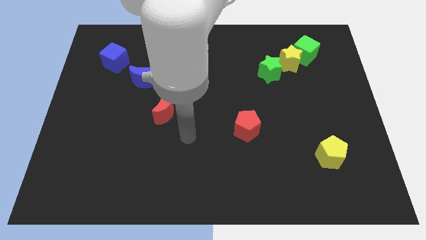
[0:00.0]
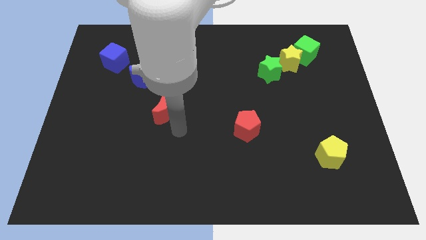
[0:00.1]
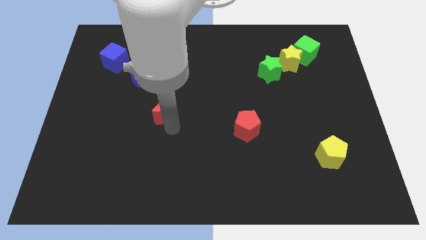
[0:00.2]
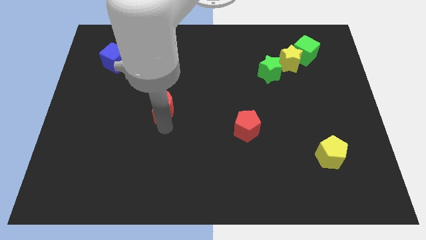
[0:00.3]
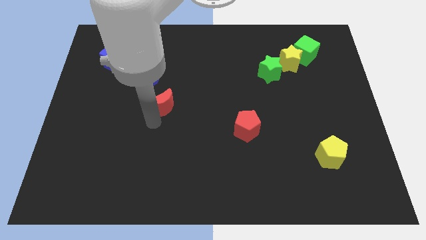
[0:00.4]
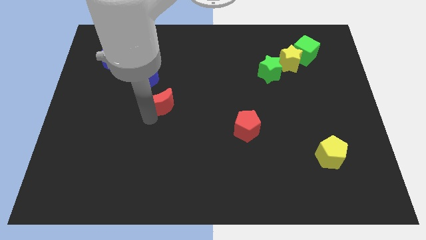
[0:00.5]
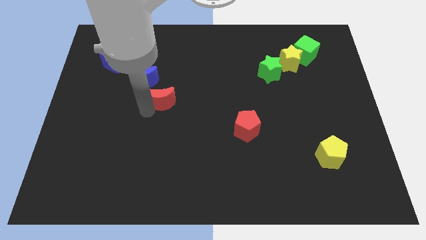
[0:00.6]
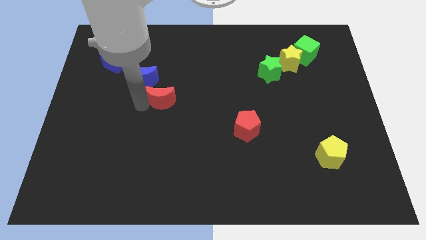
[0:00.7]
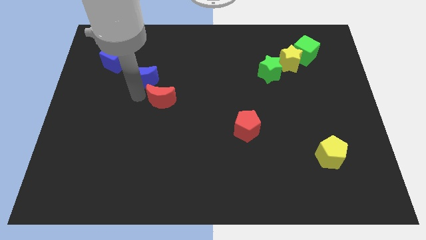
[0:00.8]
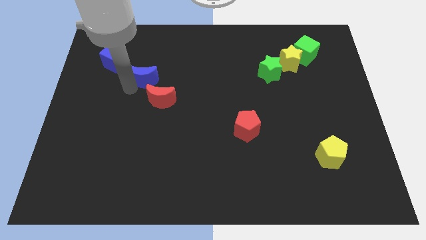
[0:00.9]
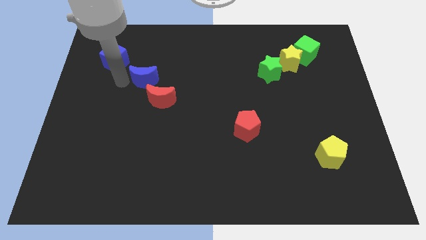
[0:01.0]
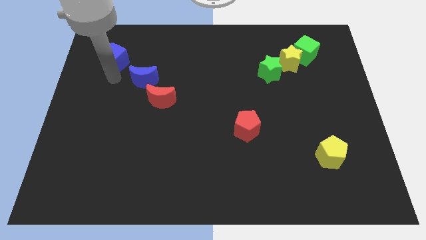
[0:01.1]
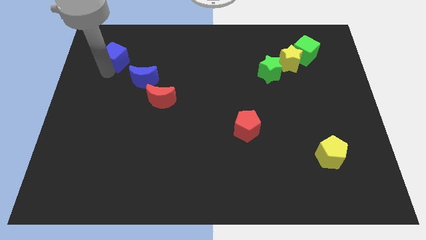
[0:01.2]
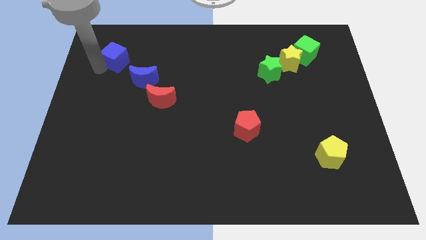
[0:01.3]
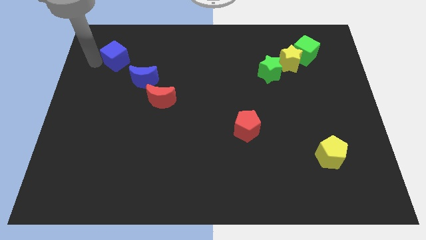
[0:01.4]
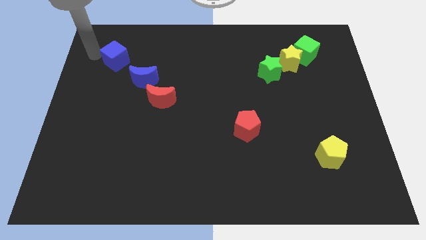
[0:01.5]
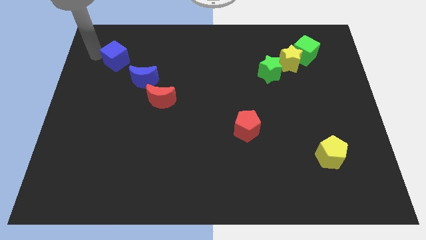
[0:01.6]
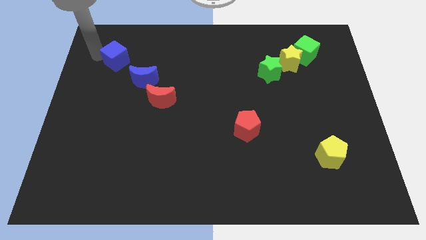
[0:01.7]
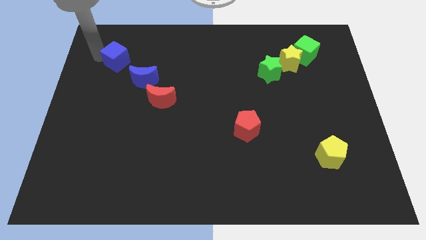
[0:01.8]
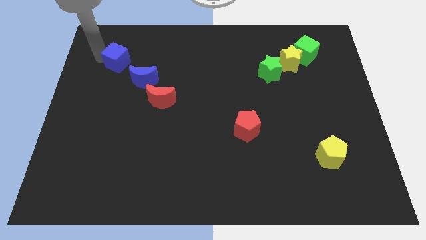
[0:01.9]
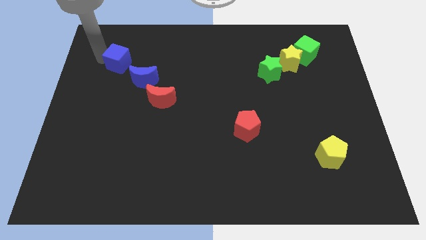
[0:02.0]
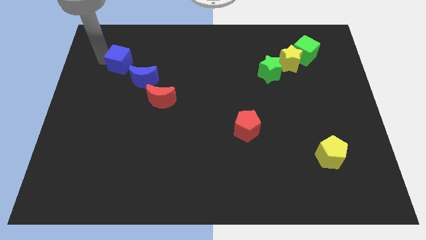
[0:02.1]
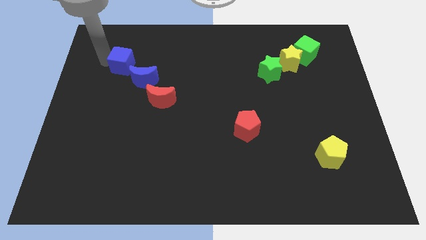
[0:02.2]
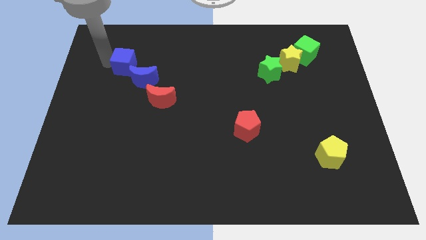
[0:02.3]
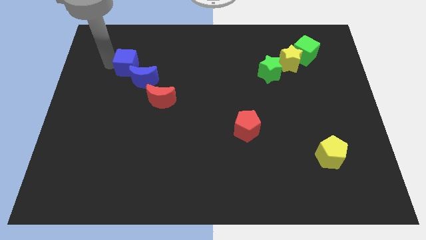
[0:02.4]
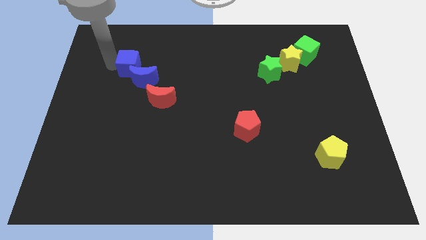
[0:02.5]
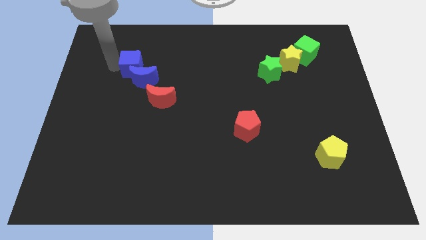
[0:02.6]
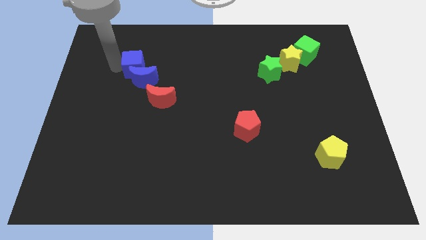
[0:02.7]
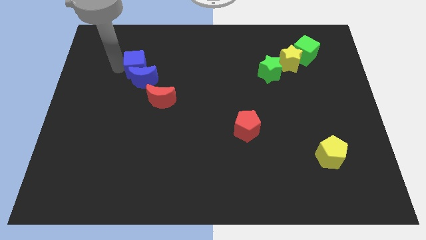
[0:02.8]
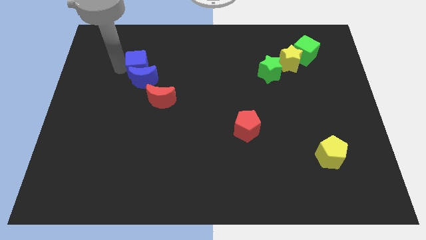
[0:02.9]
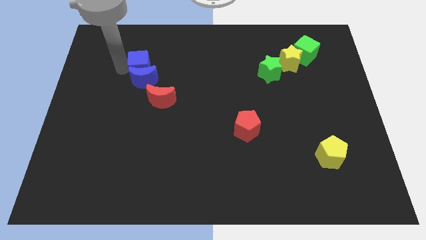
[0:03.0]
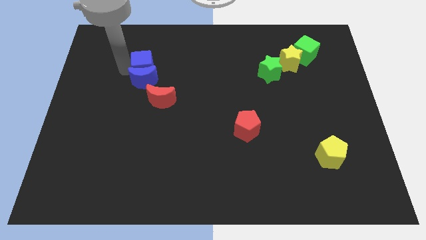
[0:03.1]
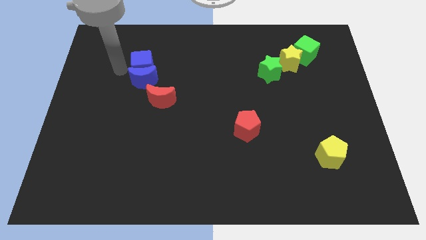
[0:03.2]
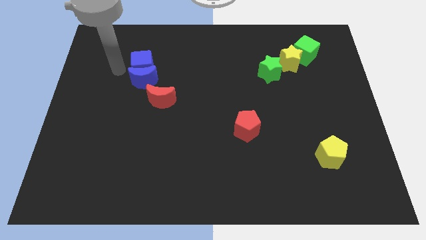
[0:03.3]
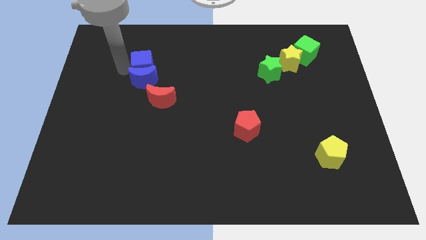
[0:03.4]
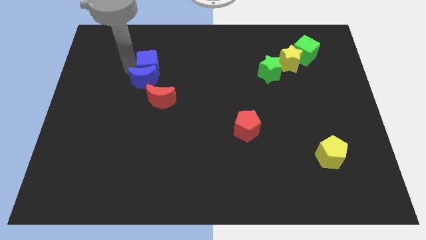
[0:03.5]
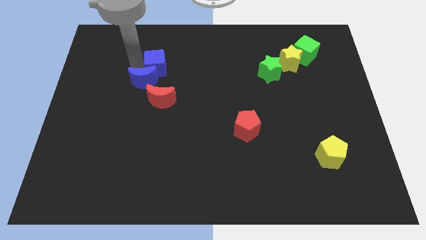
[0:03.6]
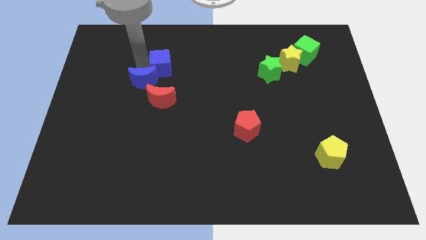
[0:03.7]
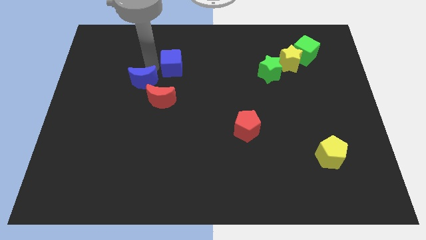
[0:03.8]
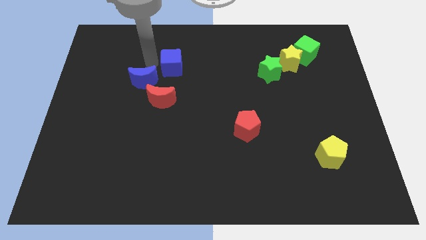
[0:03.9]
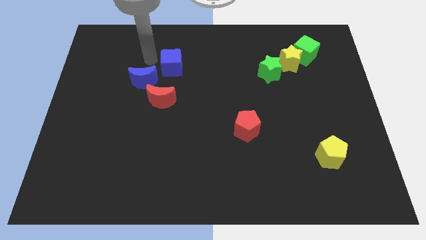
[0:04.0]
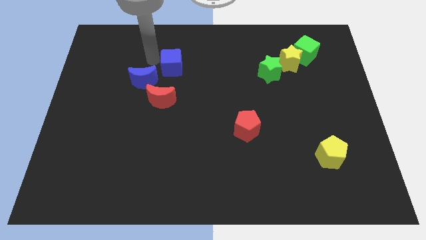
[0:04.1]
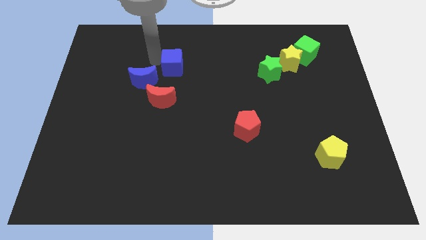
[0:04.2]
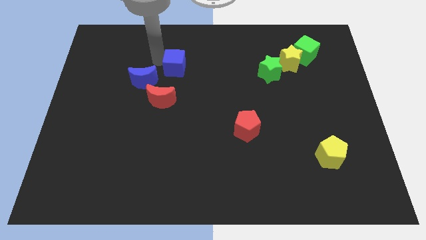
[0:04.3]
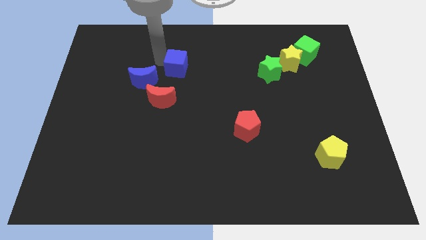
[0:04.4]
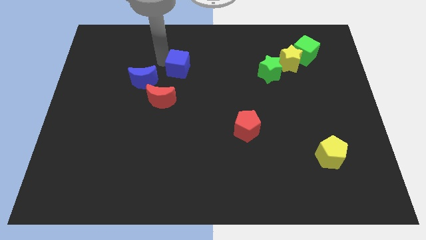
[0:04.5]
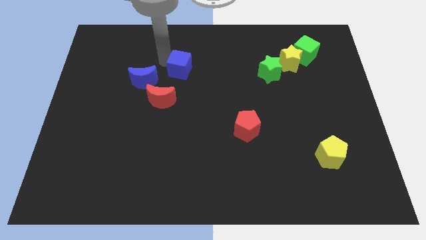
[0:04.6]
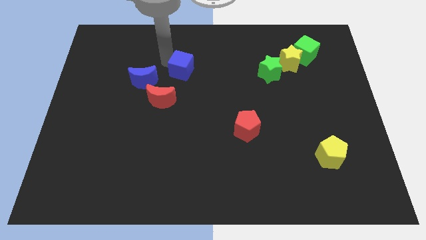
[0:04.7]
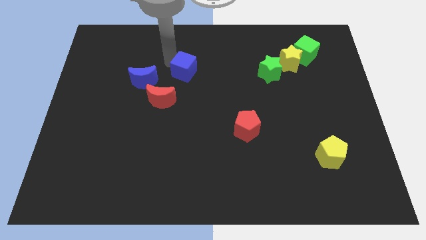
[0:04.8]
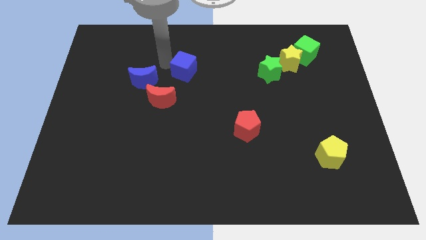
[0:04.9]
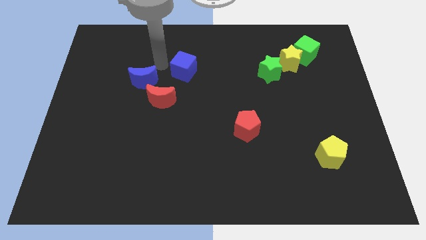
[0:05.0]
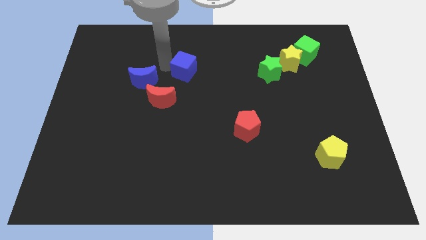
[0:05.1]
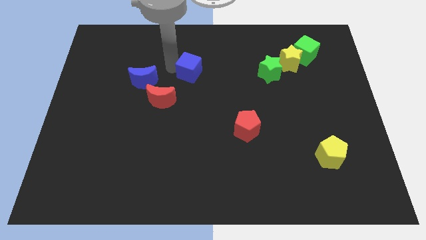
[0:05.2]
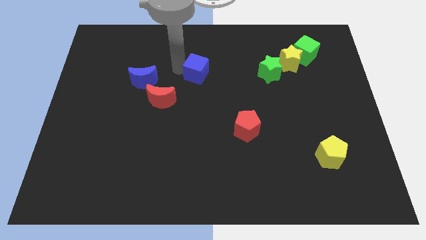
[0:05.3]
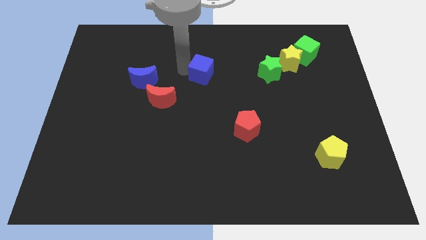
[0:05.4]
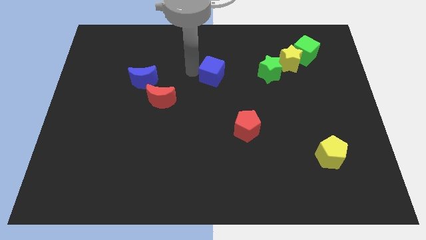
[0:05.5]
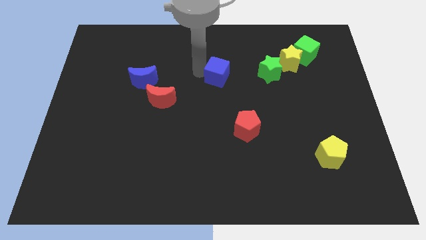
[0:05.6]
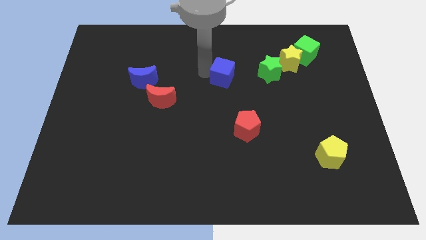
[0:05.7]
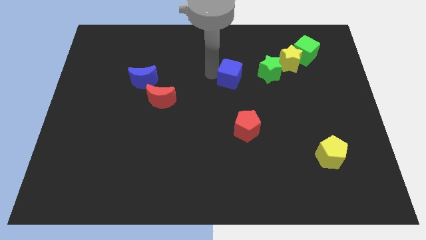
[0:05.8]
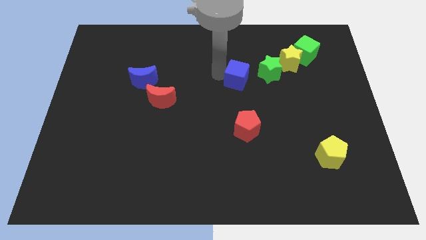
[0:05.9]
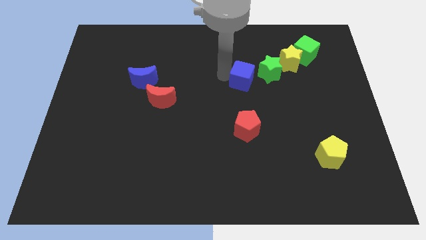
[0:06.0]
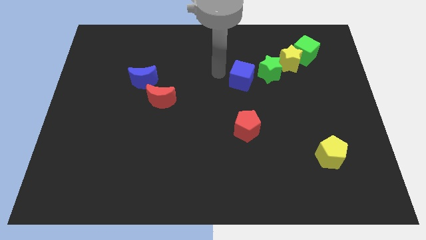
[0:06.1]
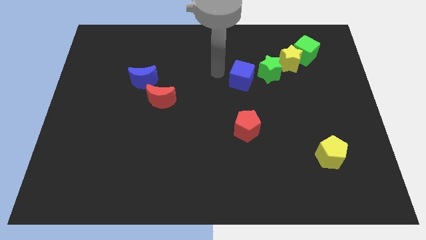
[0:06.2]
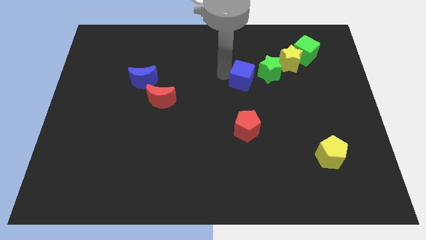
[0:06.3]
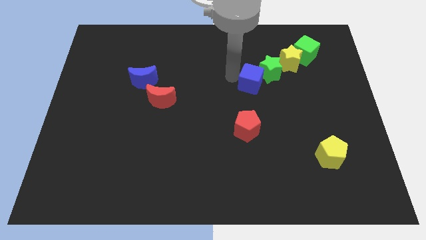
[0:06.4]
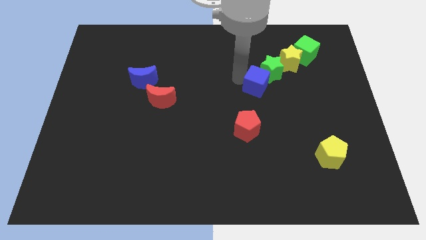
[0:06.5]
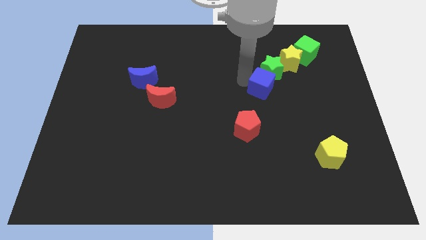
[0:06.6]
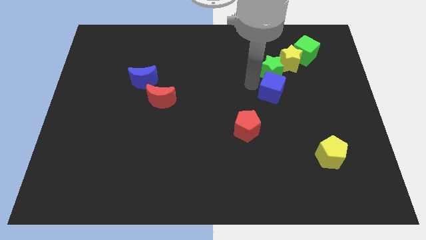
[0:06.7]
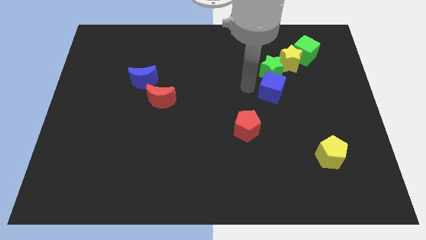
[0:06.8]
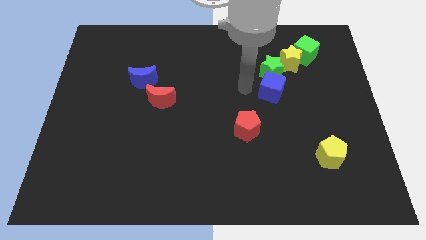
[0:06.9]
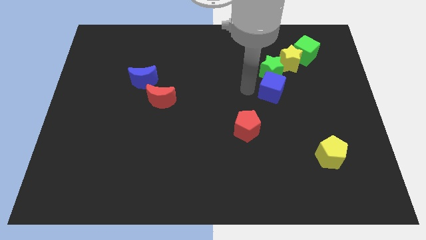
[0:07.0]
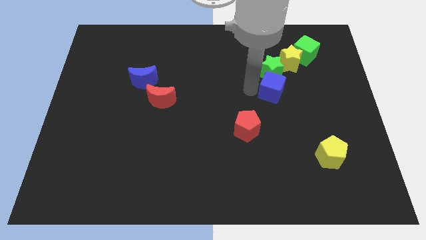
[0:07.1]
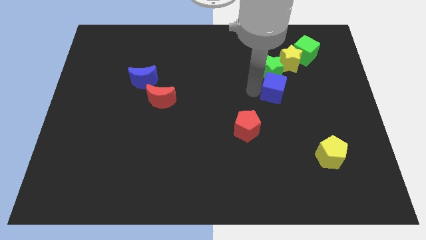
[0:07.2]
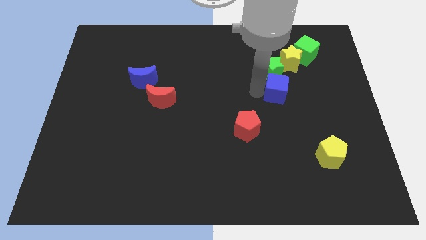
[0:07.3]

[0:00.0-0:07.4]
push the blue cube below the yellow star

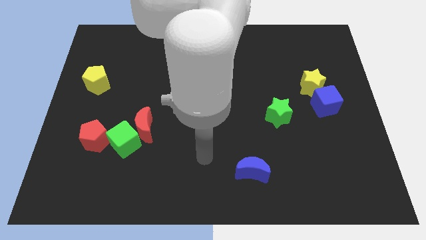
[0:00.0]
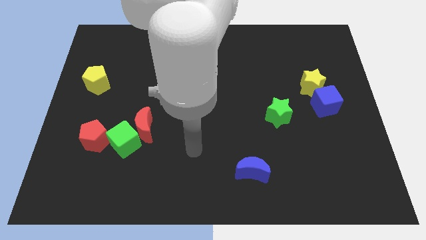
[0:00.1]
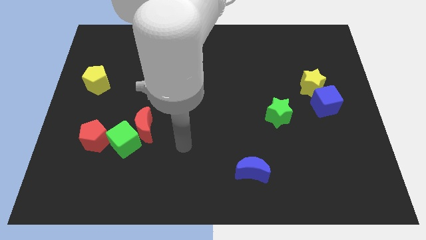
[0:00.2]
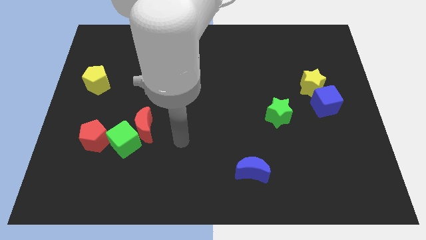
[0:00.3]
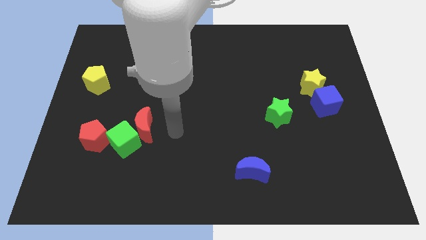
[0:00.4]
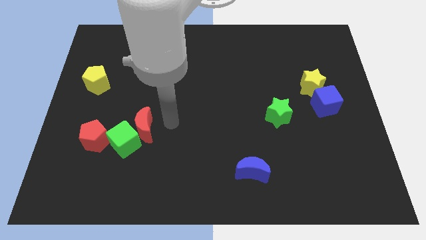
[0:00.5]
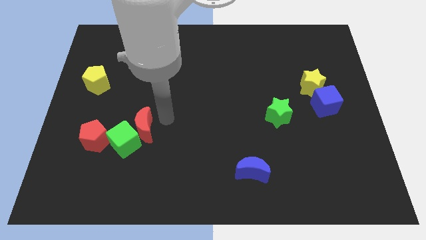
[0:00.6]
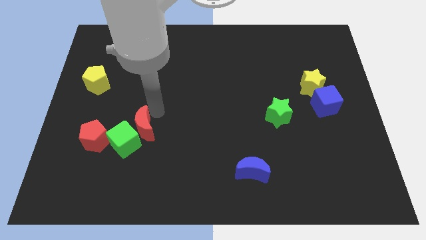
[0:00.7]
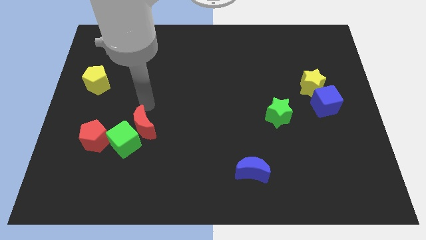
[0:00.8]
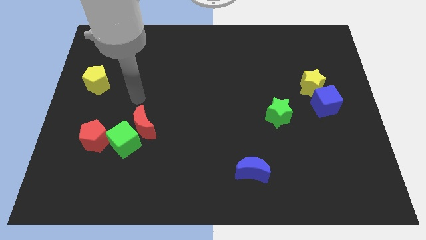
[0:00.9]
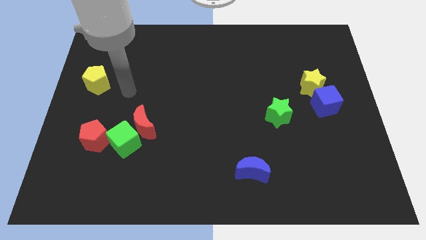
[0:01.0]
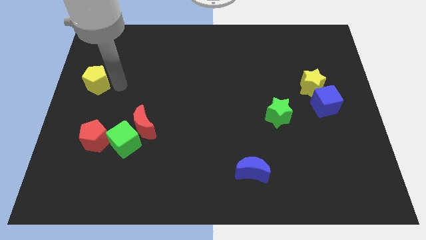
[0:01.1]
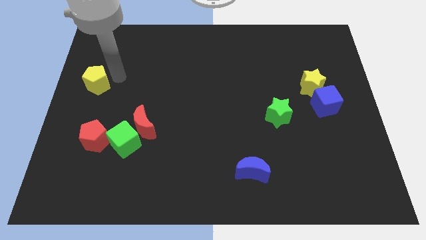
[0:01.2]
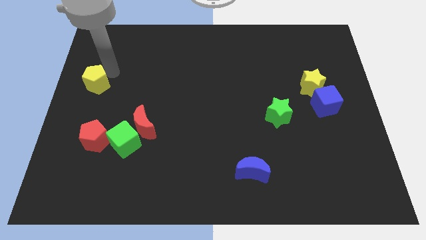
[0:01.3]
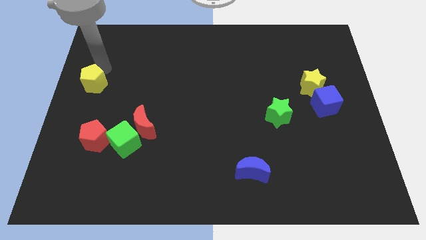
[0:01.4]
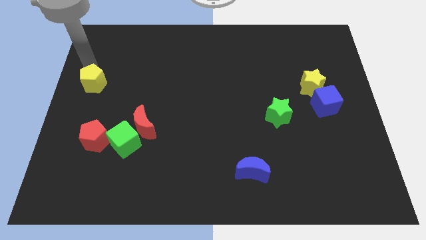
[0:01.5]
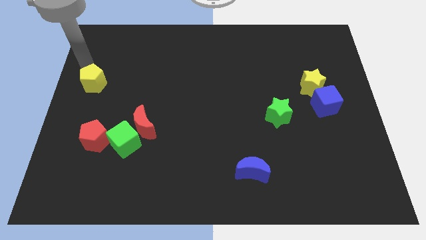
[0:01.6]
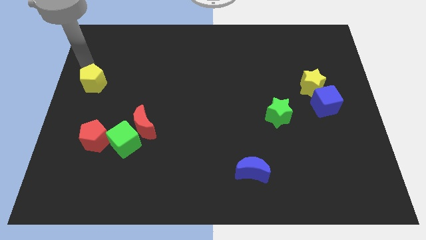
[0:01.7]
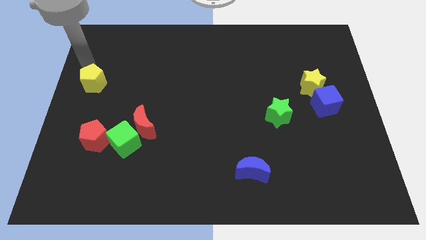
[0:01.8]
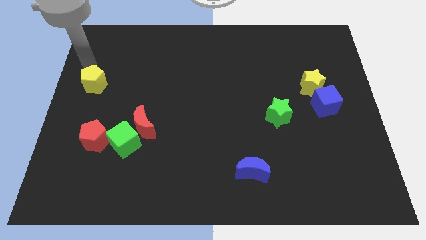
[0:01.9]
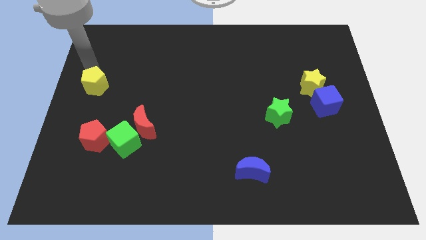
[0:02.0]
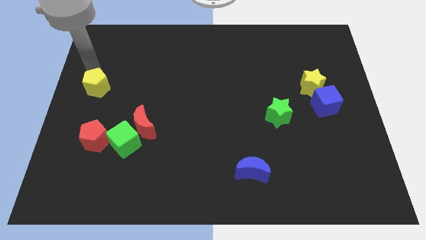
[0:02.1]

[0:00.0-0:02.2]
put the yellow pentagon to the top of the red pentagon
